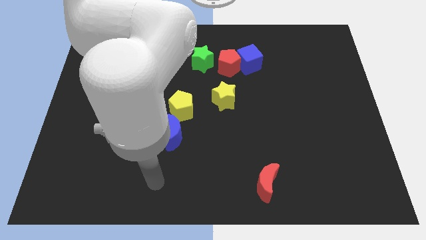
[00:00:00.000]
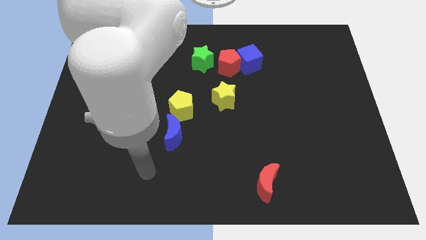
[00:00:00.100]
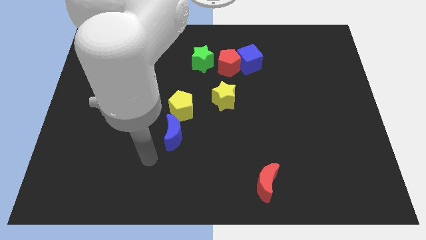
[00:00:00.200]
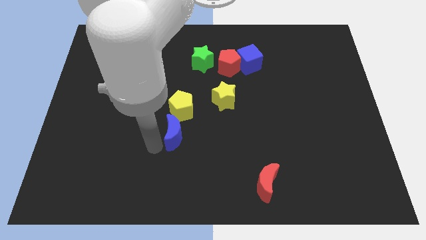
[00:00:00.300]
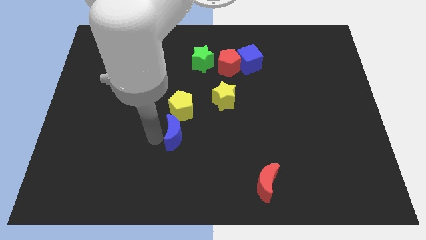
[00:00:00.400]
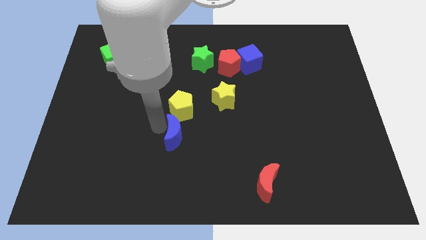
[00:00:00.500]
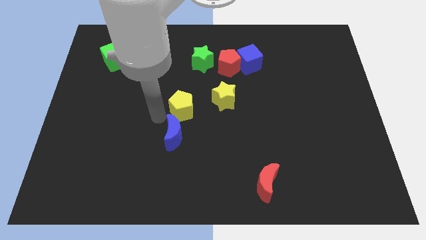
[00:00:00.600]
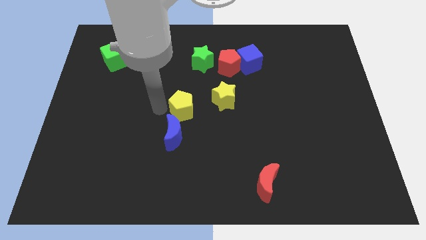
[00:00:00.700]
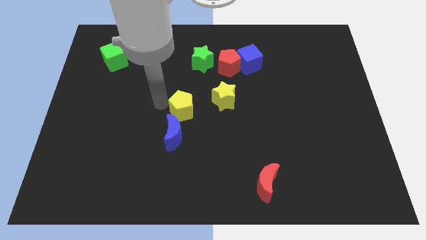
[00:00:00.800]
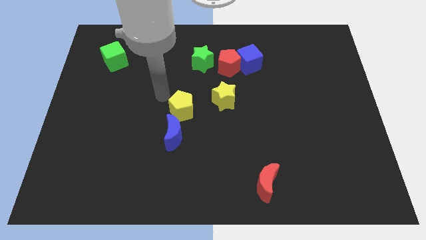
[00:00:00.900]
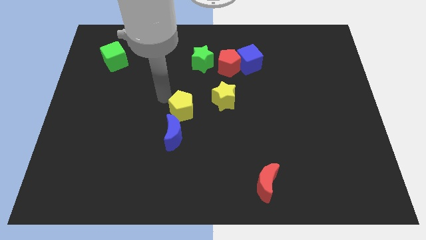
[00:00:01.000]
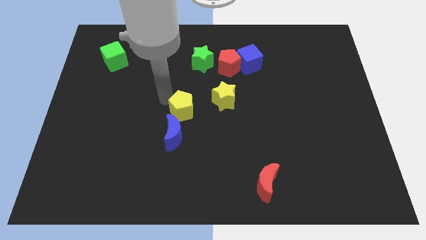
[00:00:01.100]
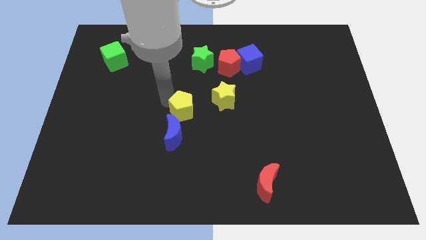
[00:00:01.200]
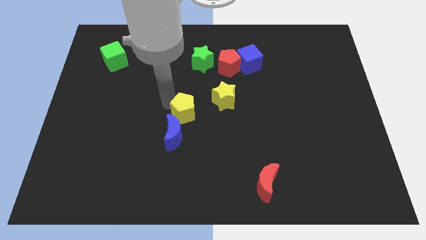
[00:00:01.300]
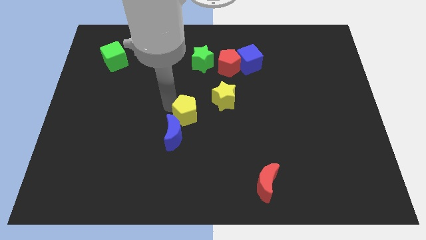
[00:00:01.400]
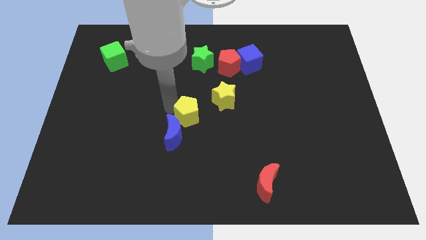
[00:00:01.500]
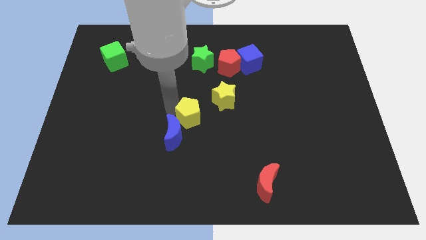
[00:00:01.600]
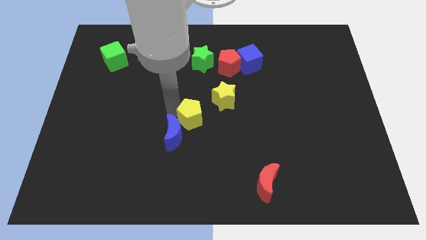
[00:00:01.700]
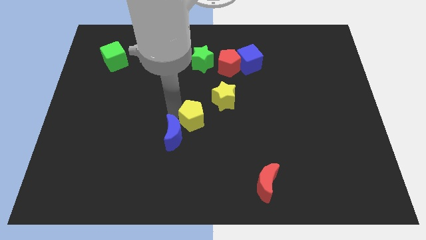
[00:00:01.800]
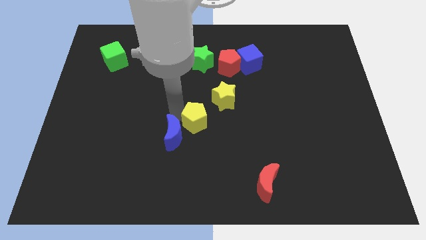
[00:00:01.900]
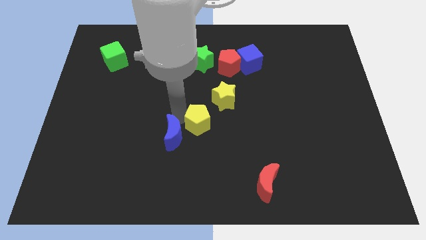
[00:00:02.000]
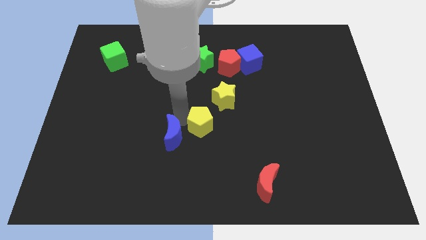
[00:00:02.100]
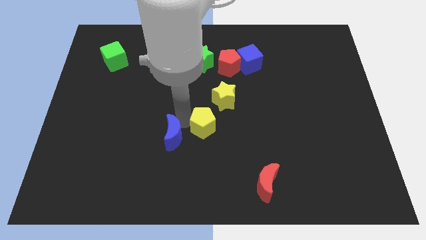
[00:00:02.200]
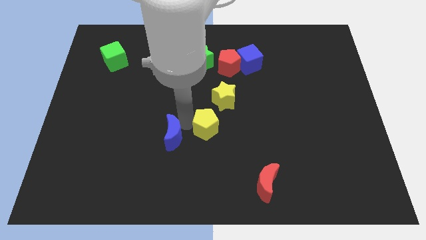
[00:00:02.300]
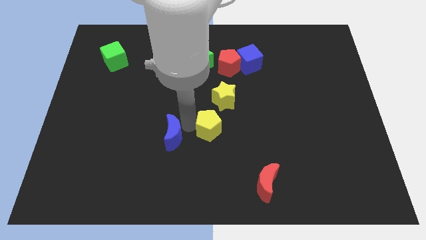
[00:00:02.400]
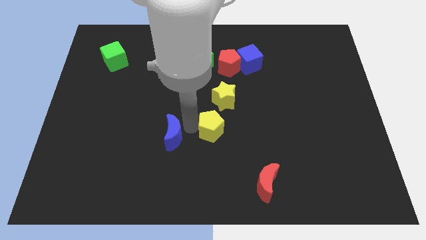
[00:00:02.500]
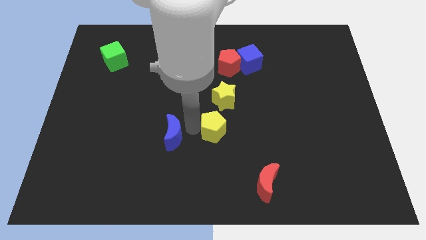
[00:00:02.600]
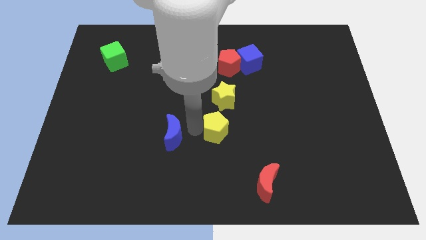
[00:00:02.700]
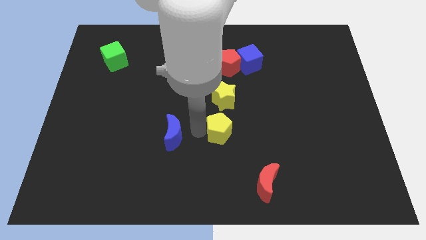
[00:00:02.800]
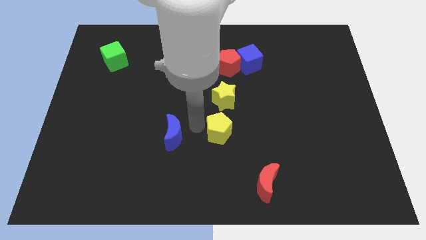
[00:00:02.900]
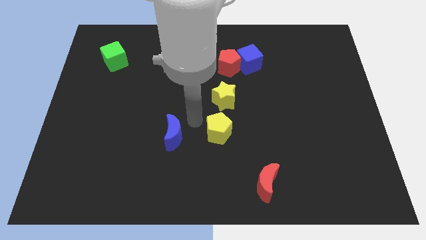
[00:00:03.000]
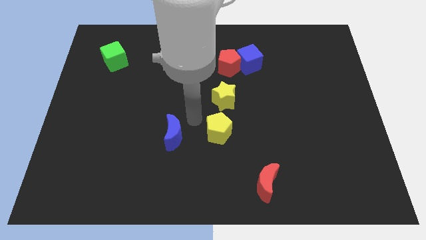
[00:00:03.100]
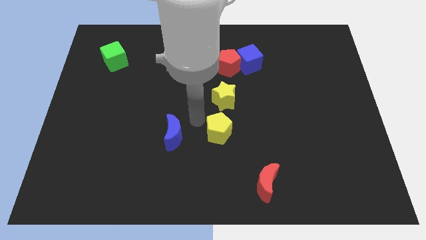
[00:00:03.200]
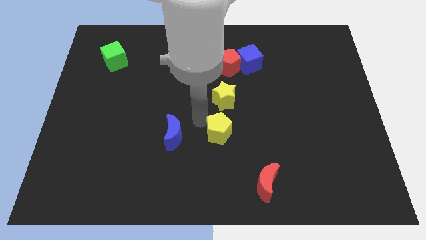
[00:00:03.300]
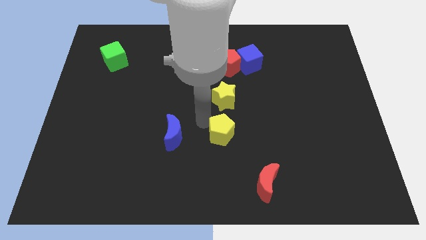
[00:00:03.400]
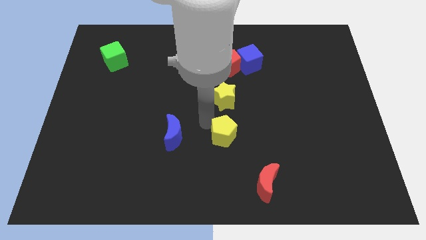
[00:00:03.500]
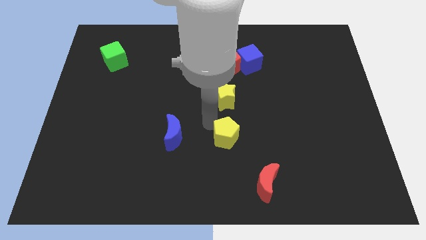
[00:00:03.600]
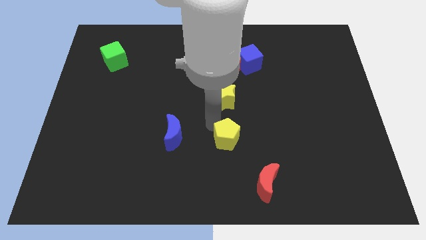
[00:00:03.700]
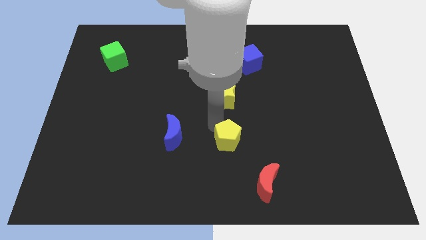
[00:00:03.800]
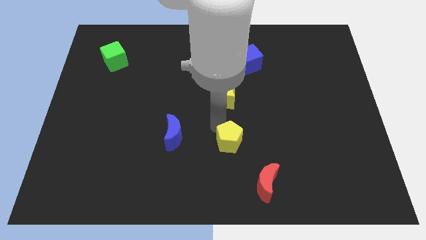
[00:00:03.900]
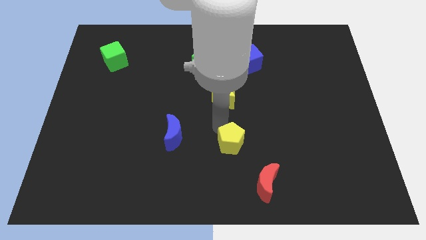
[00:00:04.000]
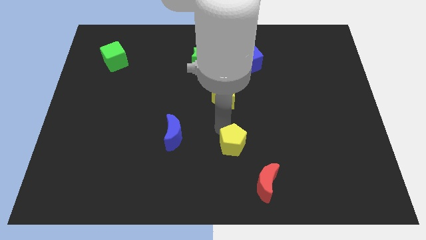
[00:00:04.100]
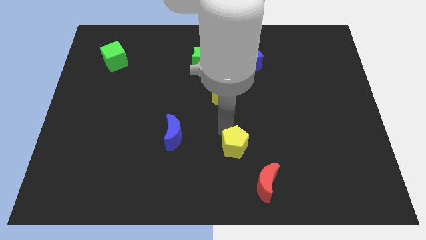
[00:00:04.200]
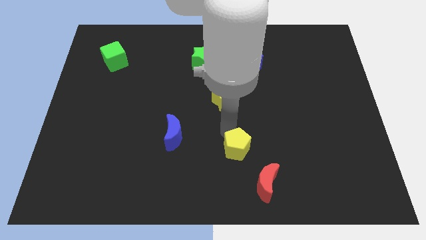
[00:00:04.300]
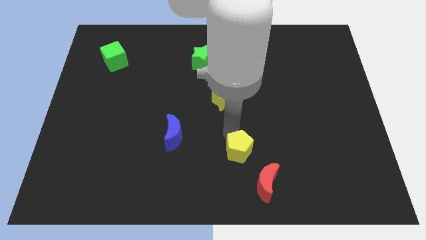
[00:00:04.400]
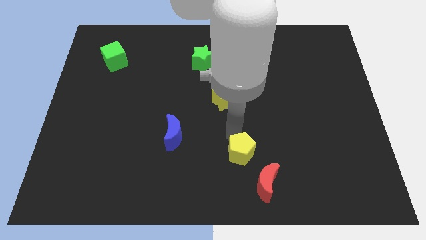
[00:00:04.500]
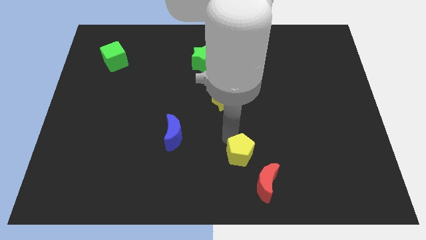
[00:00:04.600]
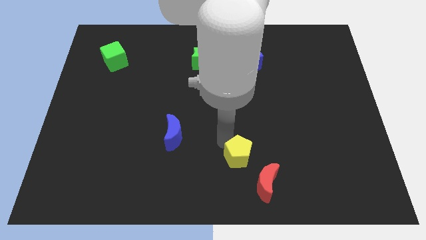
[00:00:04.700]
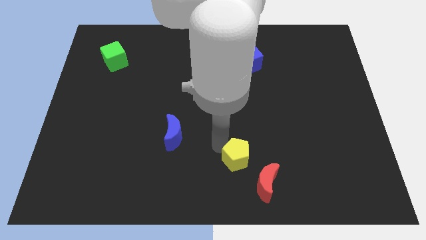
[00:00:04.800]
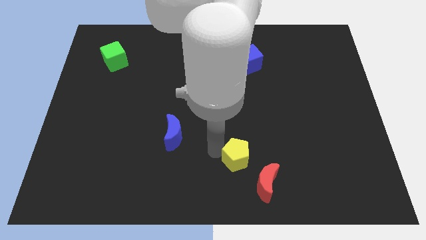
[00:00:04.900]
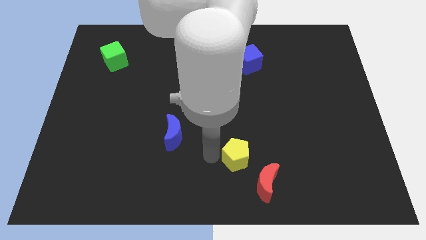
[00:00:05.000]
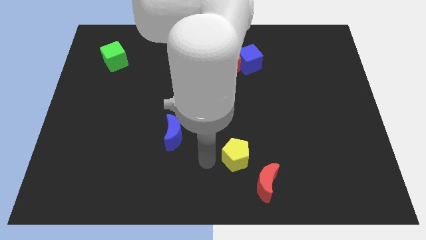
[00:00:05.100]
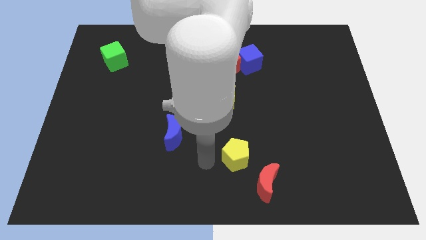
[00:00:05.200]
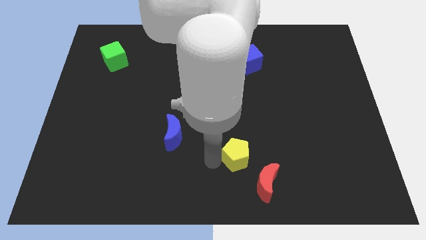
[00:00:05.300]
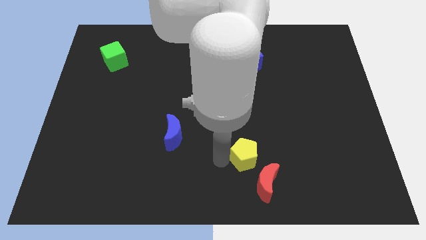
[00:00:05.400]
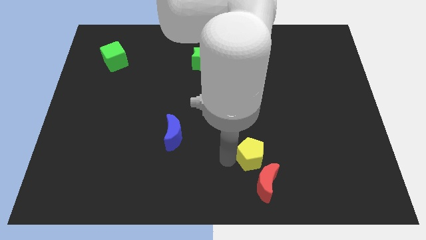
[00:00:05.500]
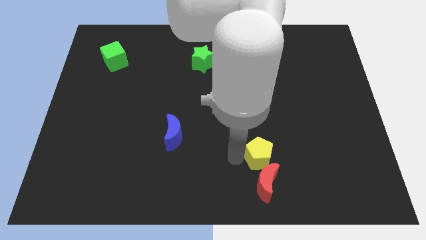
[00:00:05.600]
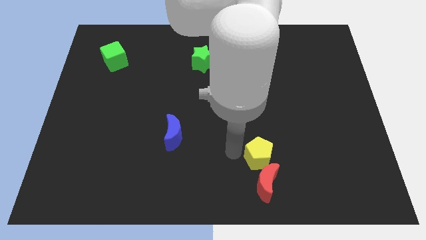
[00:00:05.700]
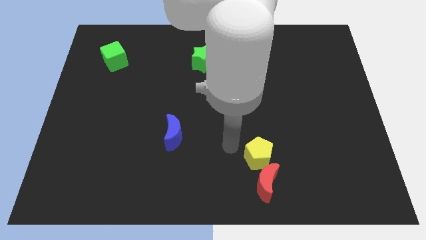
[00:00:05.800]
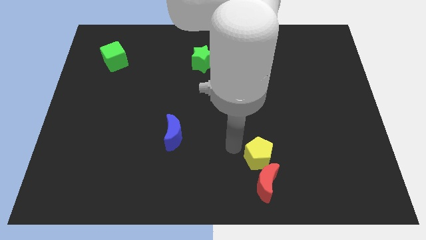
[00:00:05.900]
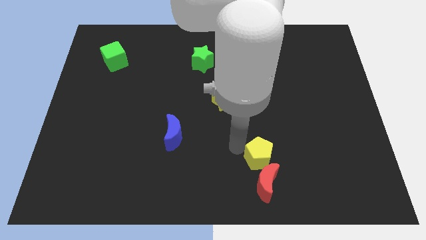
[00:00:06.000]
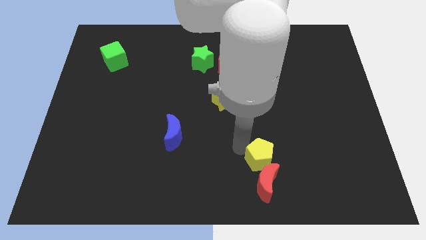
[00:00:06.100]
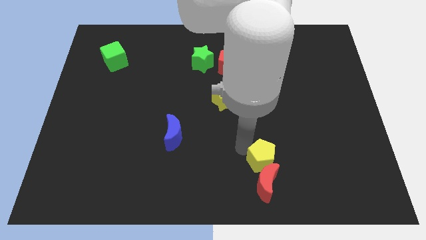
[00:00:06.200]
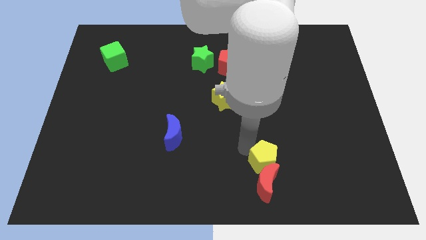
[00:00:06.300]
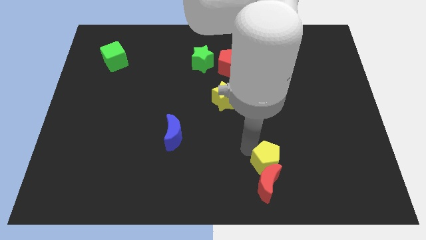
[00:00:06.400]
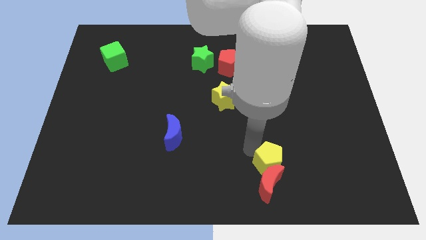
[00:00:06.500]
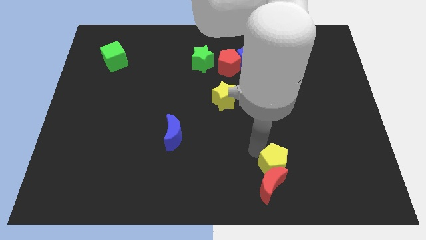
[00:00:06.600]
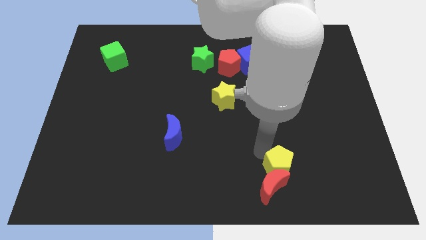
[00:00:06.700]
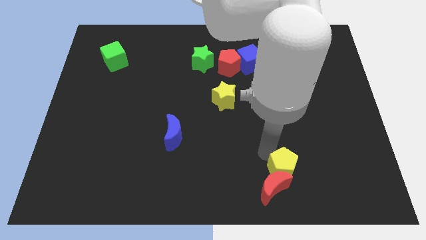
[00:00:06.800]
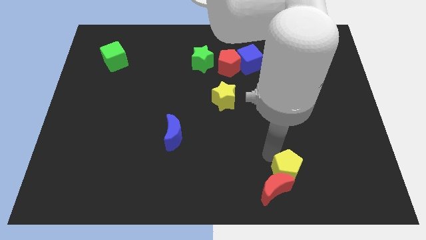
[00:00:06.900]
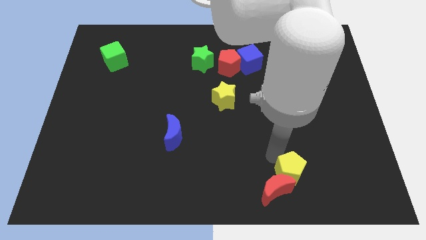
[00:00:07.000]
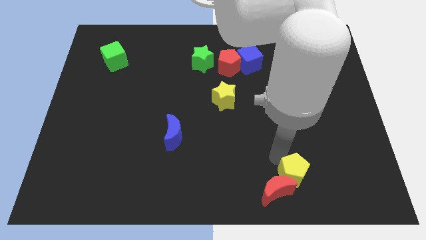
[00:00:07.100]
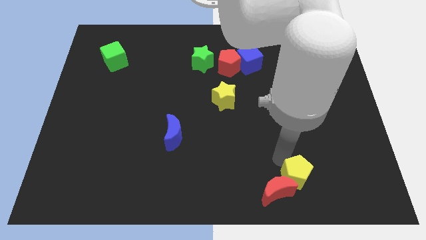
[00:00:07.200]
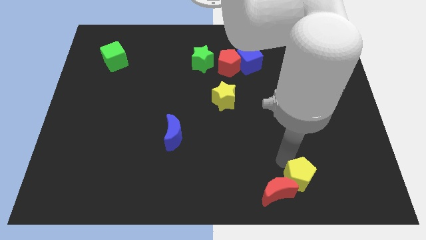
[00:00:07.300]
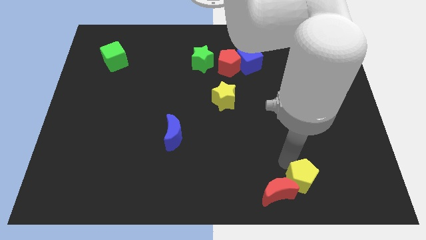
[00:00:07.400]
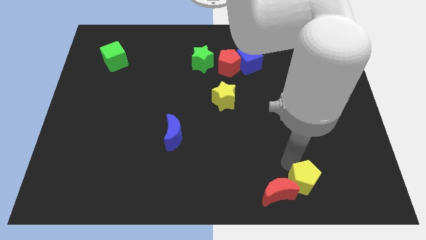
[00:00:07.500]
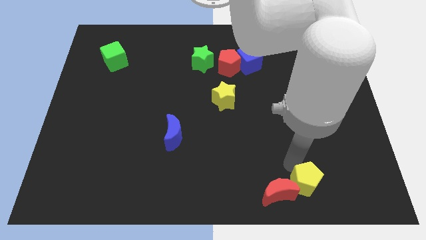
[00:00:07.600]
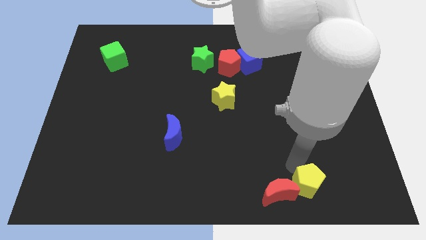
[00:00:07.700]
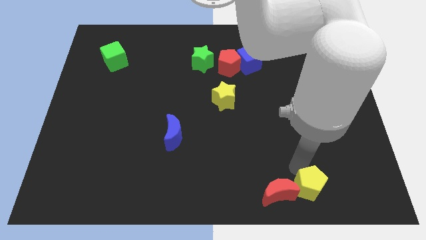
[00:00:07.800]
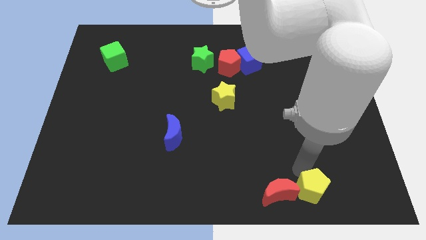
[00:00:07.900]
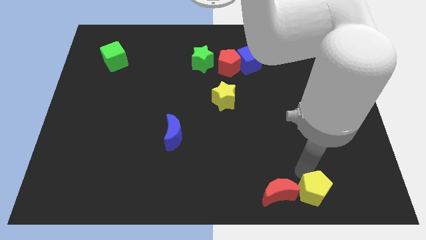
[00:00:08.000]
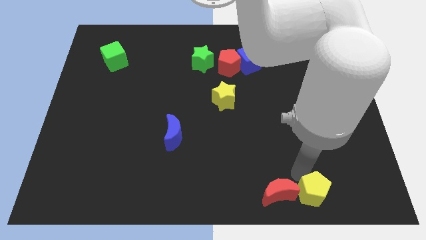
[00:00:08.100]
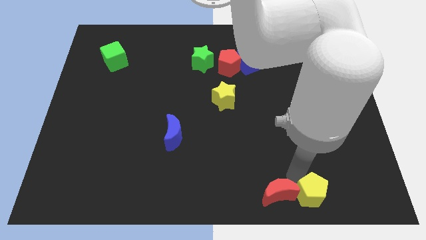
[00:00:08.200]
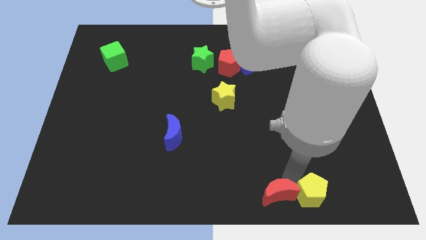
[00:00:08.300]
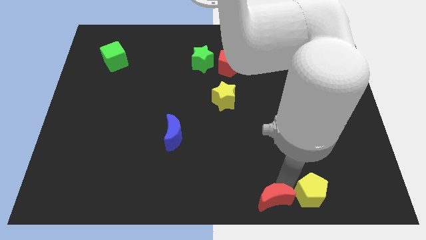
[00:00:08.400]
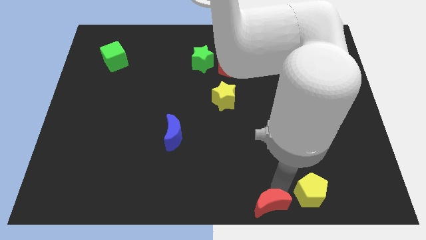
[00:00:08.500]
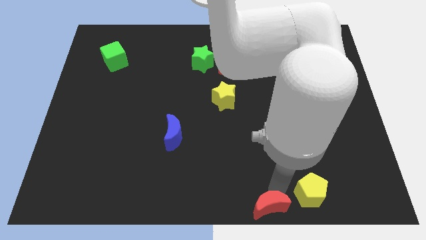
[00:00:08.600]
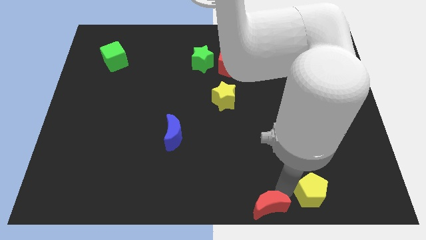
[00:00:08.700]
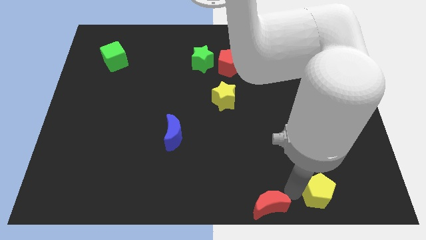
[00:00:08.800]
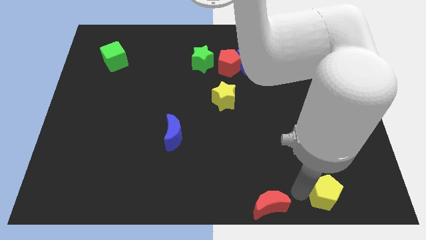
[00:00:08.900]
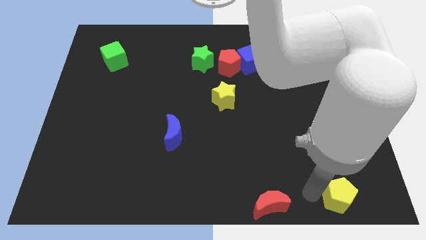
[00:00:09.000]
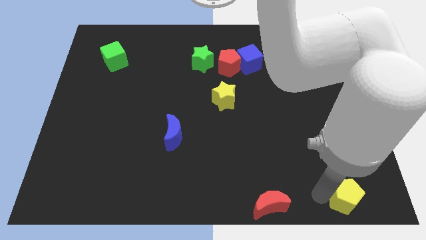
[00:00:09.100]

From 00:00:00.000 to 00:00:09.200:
slide the yellow pentagon to the lower right corner
